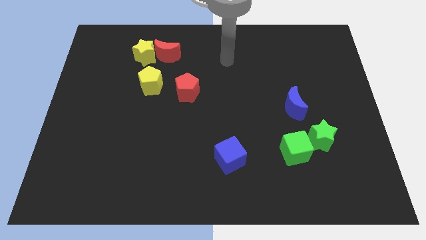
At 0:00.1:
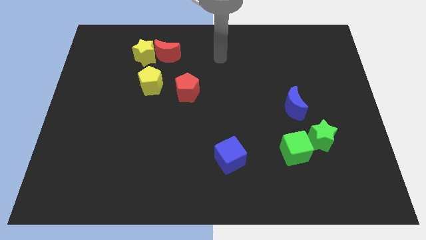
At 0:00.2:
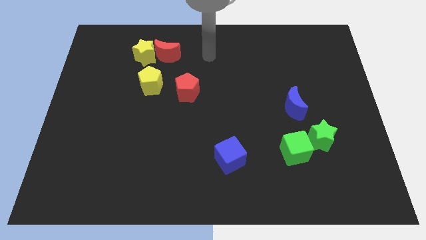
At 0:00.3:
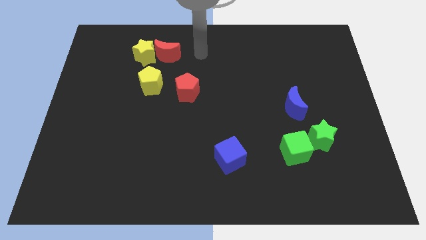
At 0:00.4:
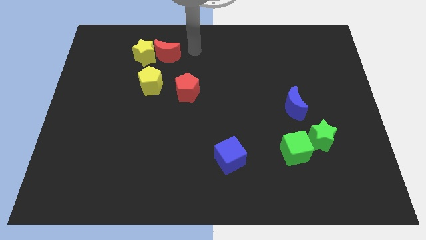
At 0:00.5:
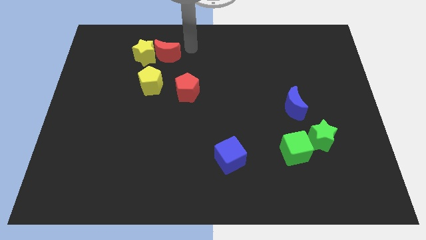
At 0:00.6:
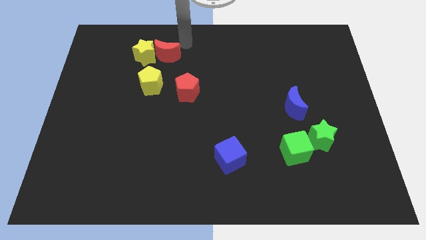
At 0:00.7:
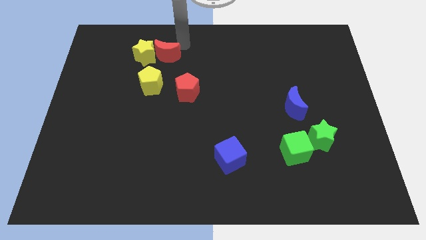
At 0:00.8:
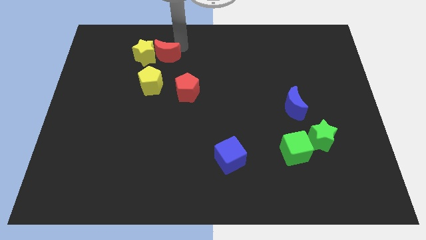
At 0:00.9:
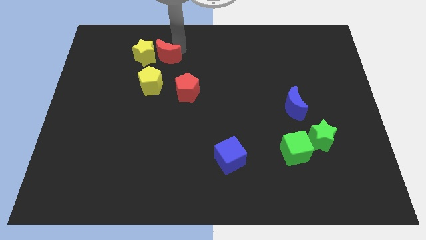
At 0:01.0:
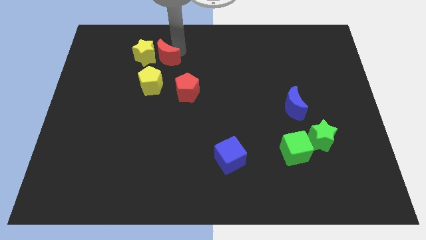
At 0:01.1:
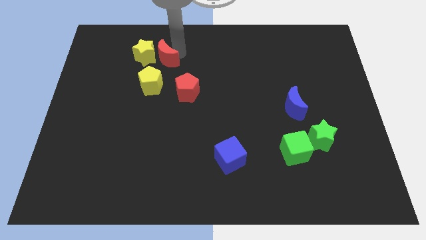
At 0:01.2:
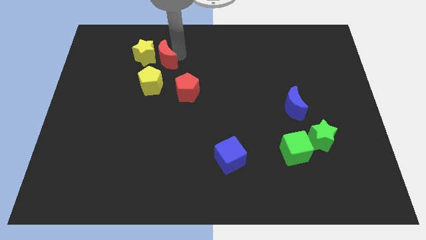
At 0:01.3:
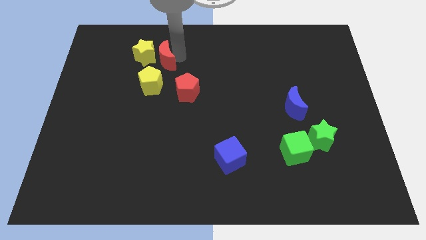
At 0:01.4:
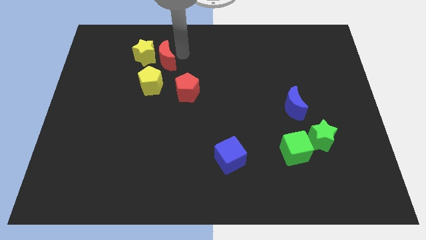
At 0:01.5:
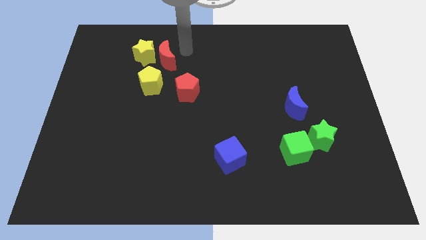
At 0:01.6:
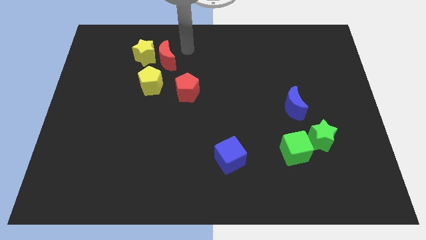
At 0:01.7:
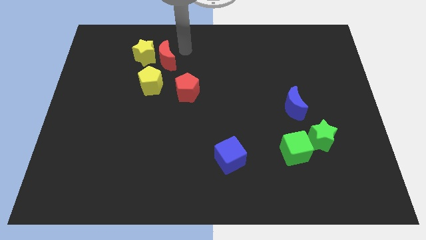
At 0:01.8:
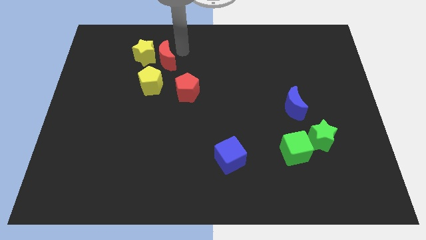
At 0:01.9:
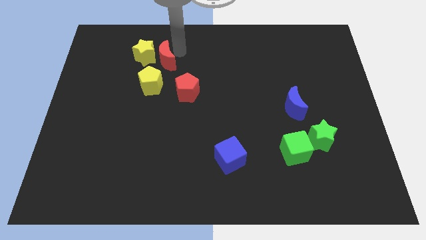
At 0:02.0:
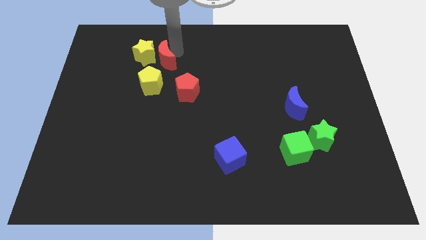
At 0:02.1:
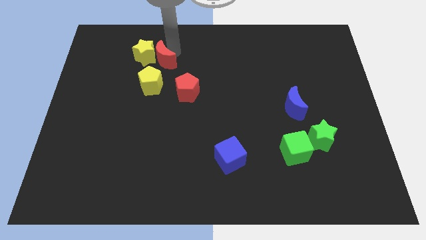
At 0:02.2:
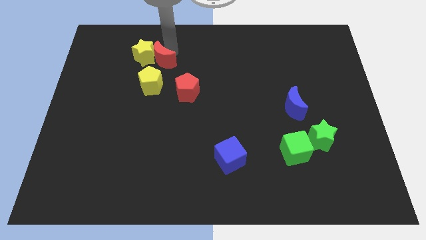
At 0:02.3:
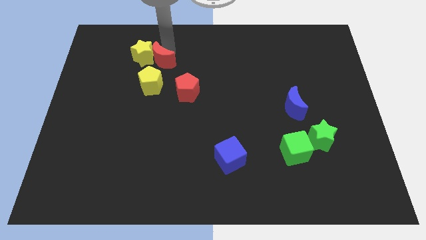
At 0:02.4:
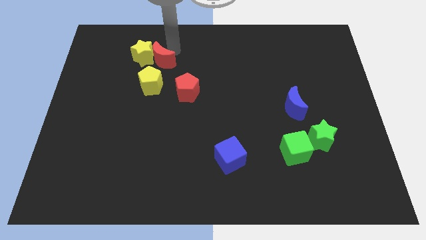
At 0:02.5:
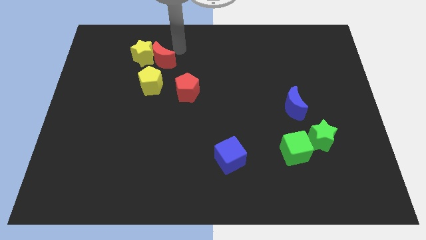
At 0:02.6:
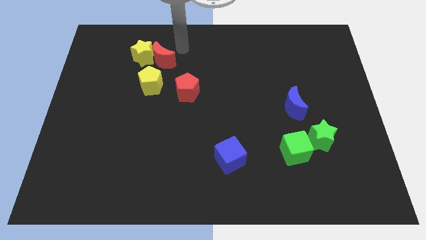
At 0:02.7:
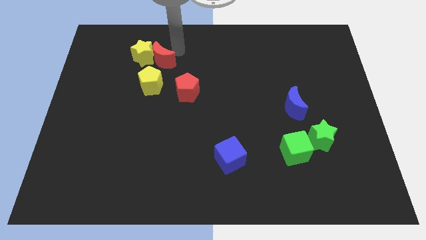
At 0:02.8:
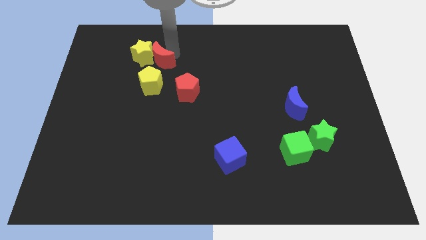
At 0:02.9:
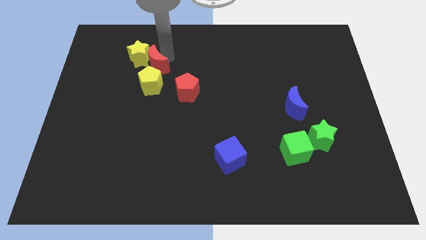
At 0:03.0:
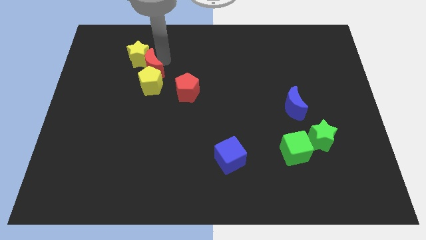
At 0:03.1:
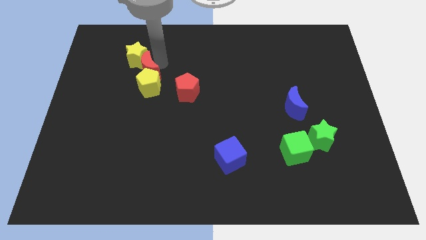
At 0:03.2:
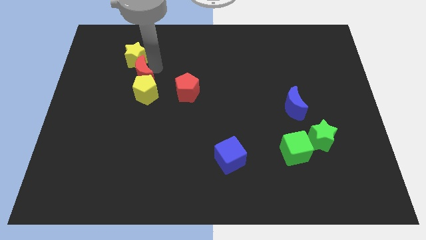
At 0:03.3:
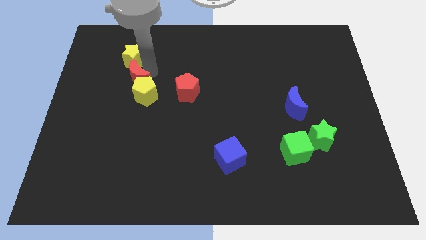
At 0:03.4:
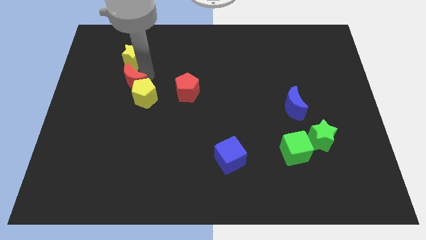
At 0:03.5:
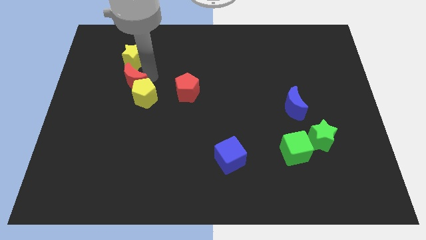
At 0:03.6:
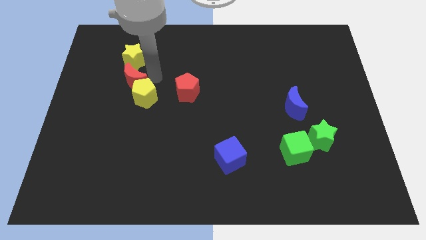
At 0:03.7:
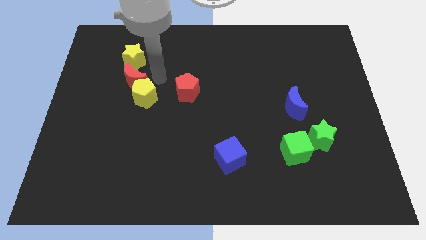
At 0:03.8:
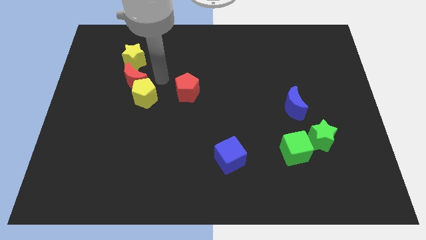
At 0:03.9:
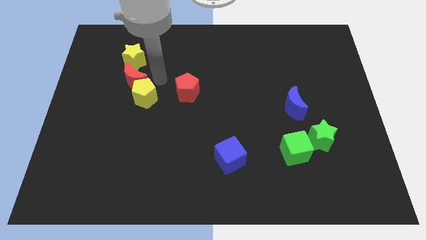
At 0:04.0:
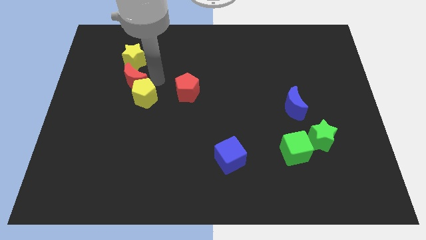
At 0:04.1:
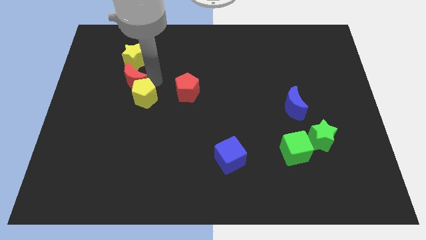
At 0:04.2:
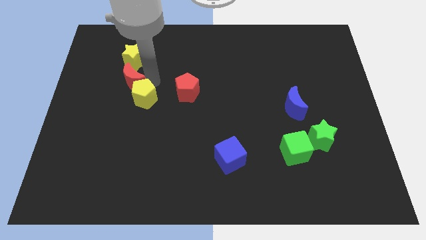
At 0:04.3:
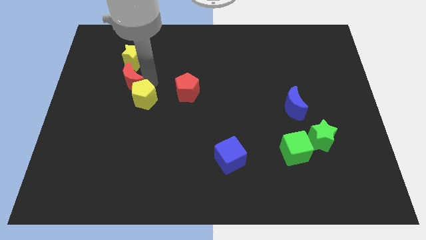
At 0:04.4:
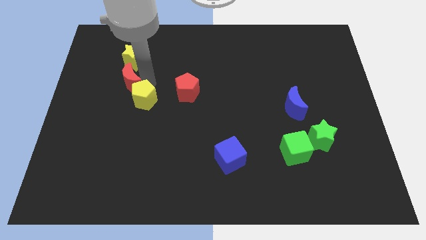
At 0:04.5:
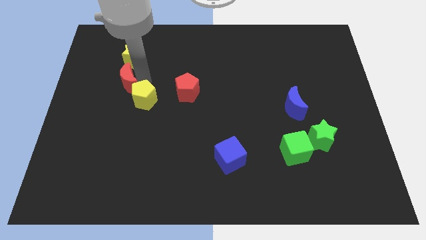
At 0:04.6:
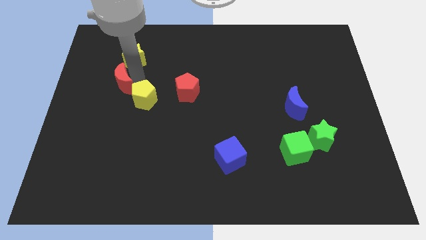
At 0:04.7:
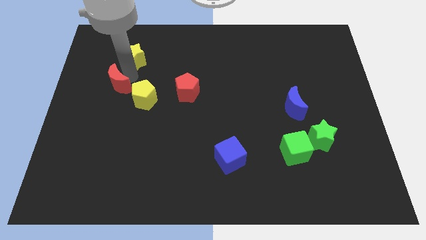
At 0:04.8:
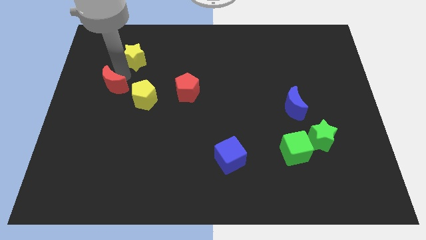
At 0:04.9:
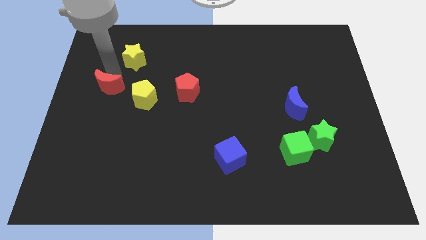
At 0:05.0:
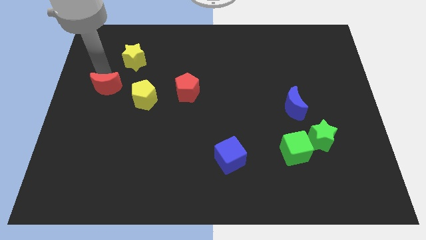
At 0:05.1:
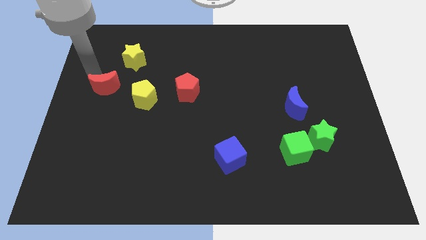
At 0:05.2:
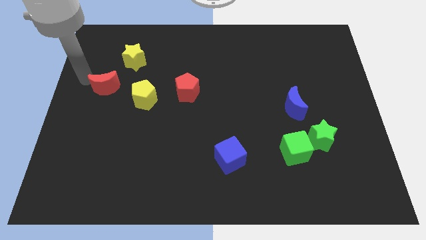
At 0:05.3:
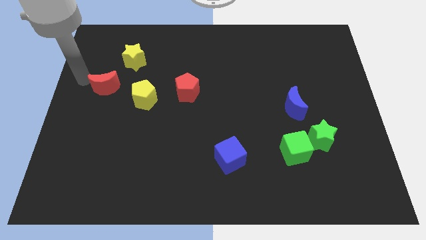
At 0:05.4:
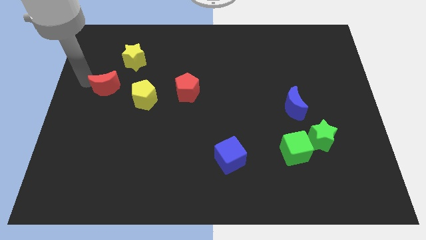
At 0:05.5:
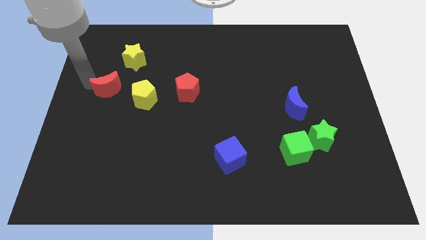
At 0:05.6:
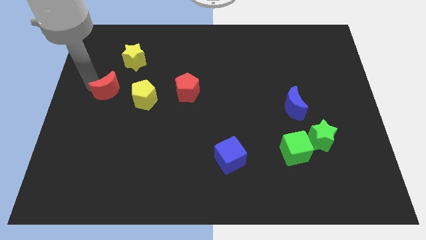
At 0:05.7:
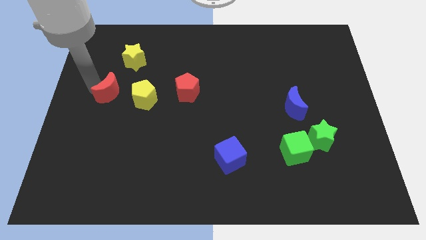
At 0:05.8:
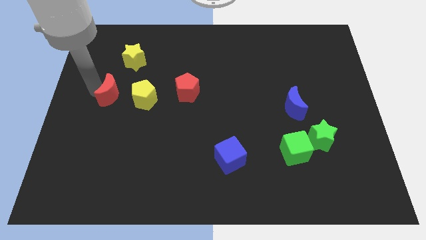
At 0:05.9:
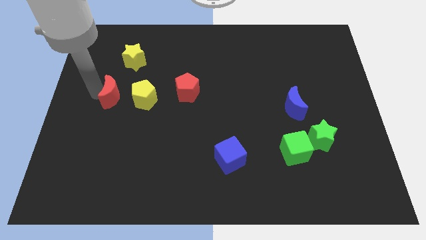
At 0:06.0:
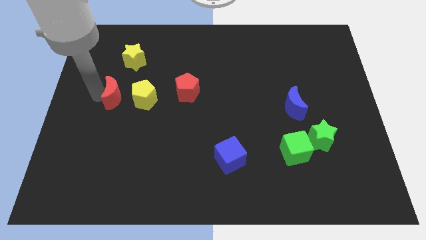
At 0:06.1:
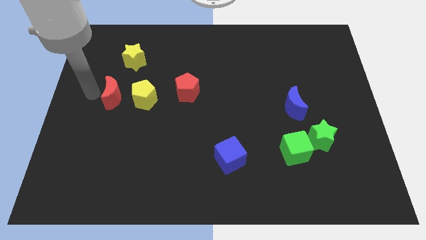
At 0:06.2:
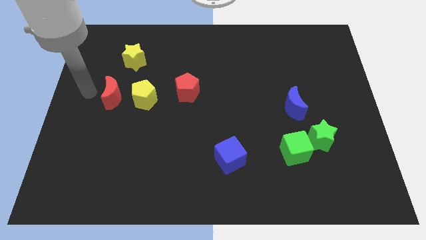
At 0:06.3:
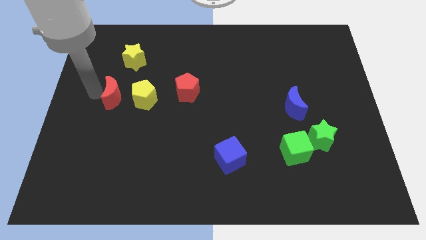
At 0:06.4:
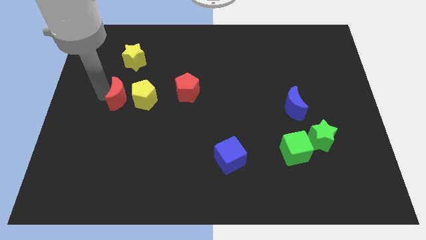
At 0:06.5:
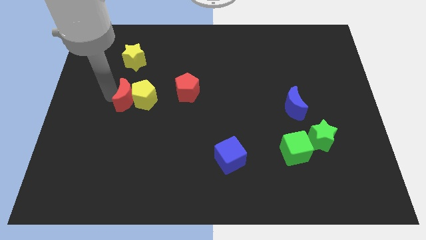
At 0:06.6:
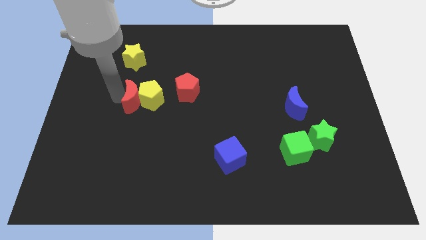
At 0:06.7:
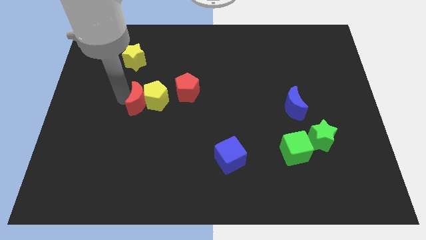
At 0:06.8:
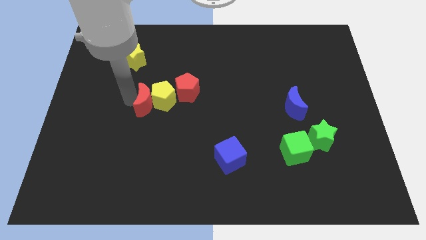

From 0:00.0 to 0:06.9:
push the red moon to the bottom left of the red pentagon
